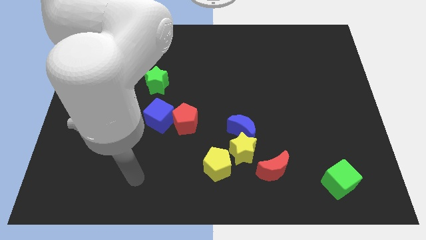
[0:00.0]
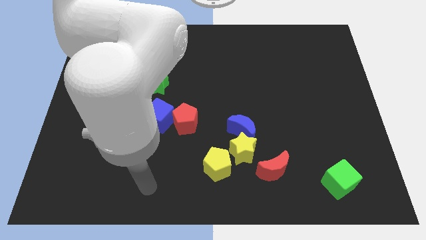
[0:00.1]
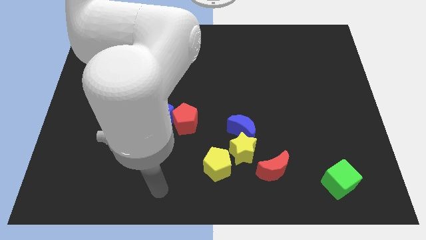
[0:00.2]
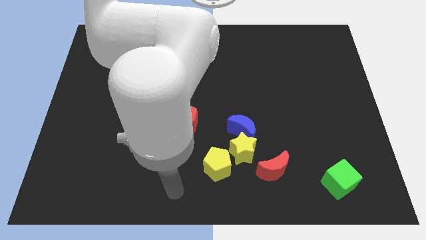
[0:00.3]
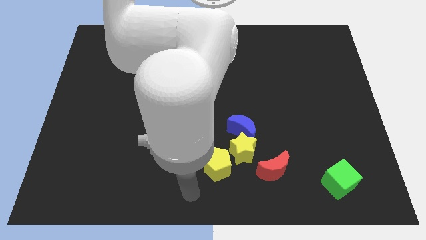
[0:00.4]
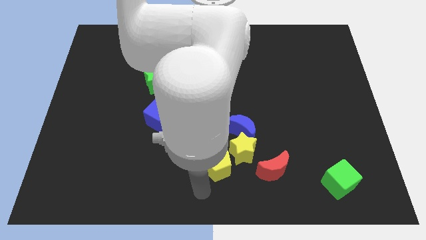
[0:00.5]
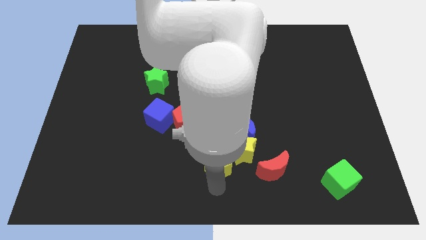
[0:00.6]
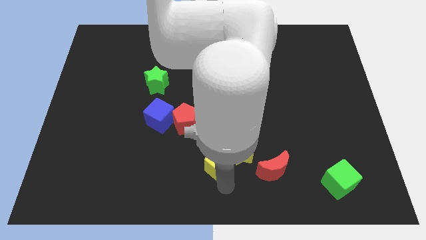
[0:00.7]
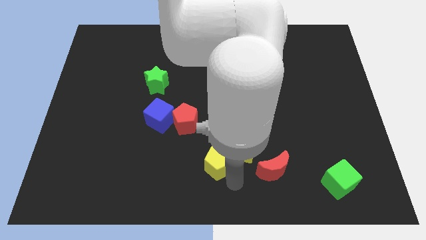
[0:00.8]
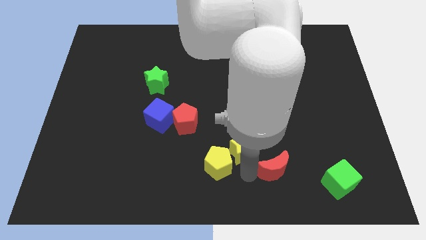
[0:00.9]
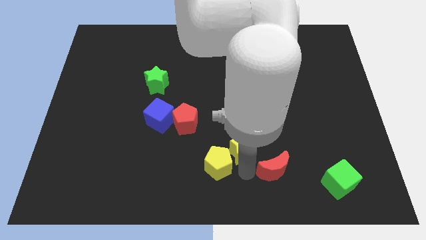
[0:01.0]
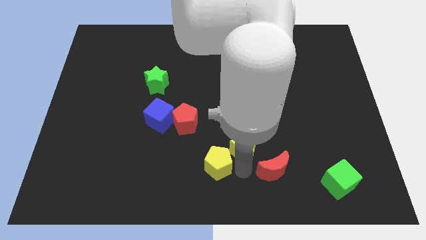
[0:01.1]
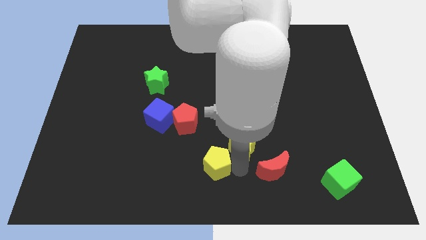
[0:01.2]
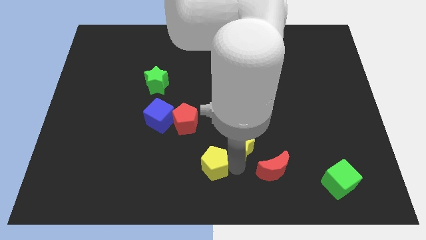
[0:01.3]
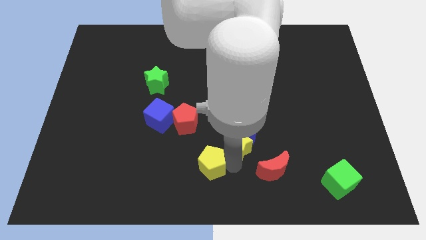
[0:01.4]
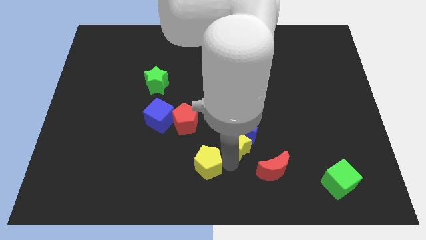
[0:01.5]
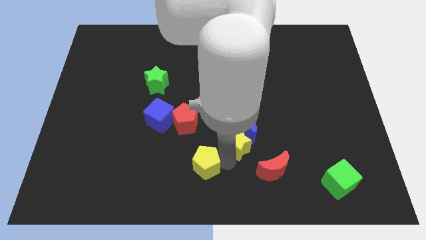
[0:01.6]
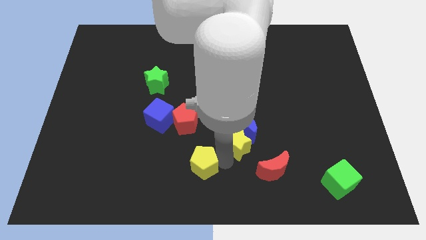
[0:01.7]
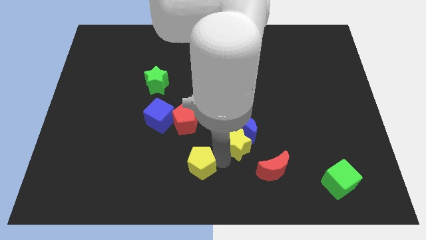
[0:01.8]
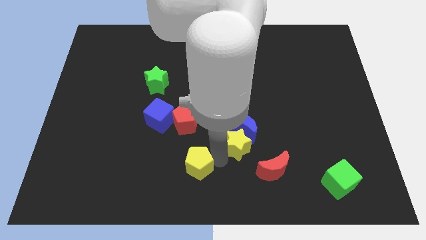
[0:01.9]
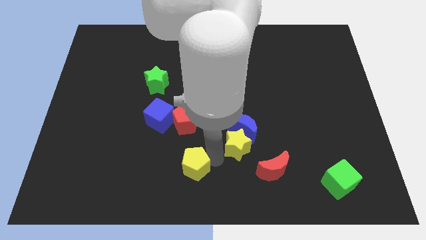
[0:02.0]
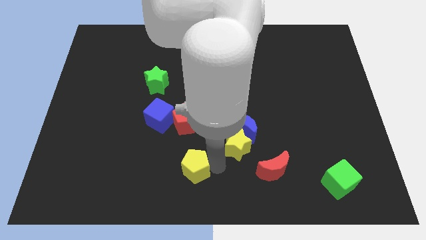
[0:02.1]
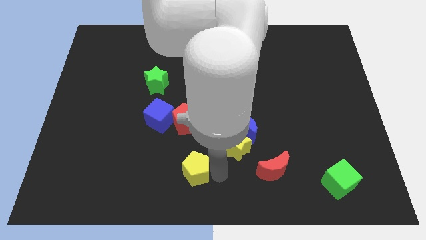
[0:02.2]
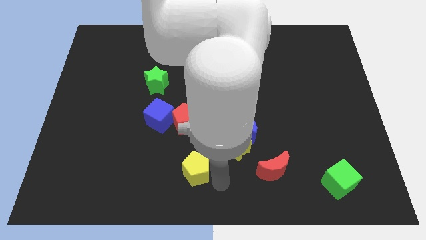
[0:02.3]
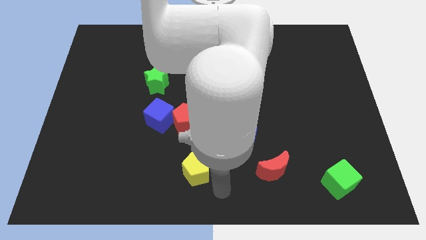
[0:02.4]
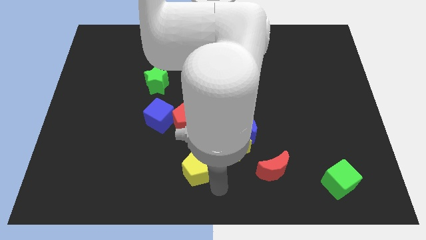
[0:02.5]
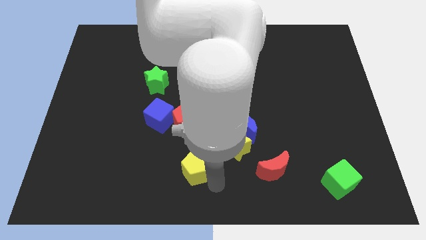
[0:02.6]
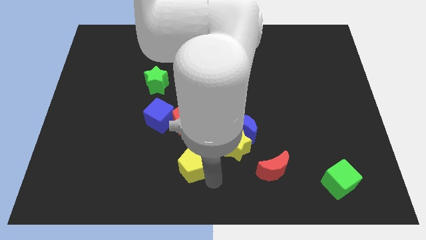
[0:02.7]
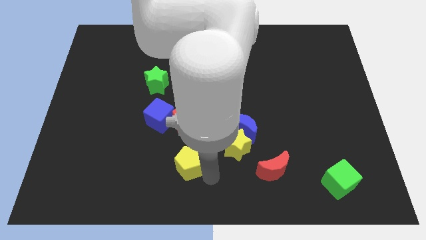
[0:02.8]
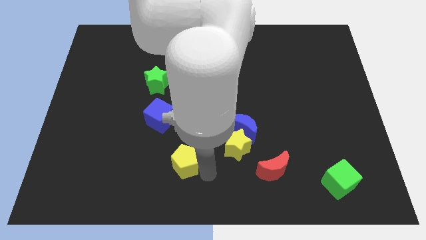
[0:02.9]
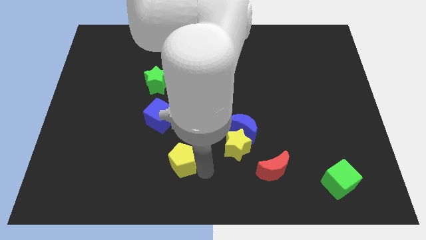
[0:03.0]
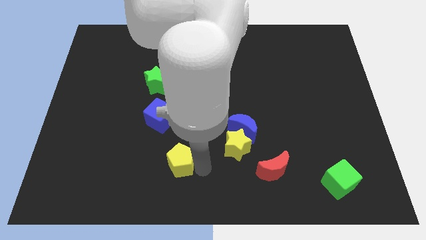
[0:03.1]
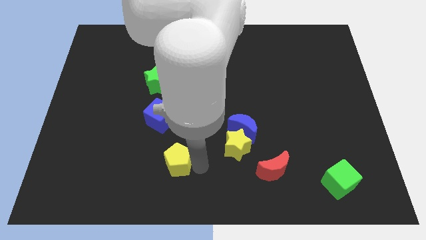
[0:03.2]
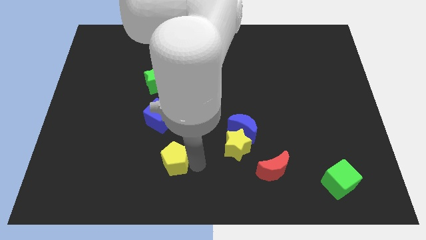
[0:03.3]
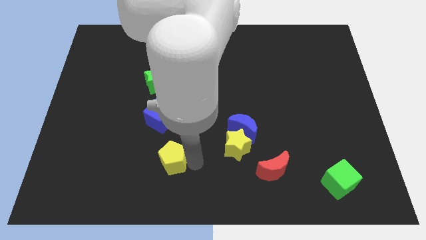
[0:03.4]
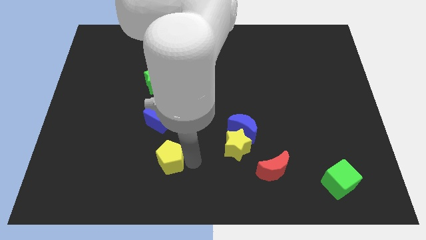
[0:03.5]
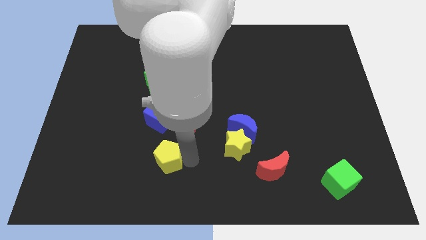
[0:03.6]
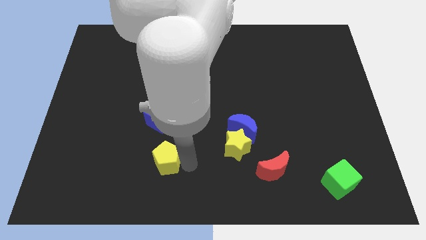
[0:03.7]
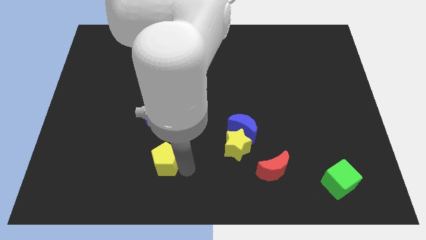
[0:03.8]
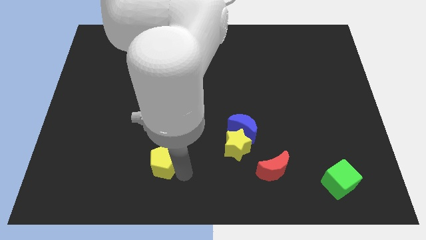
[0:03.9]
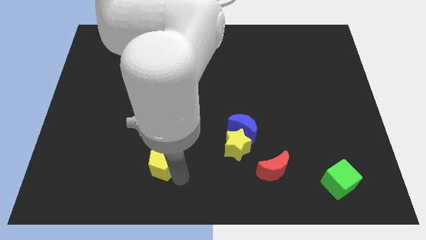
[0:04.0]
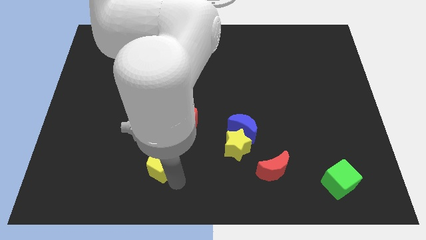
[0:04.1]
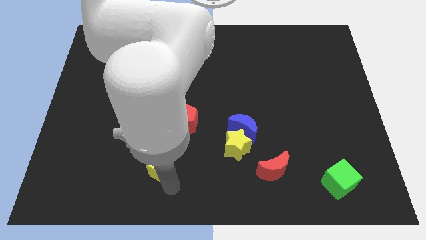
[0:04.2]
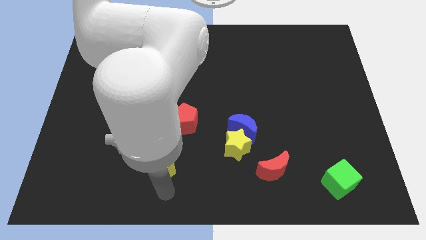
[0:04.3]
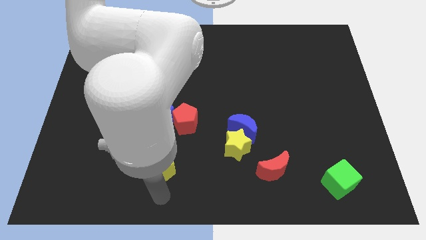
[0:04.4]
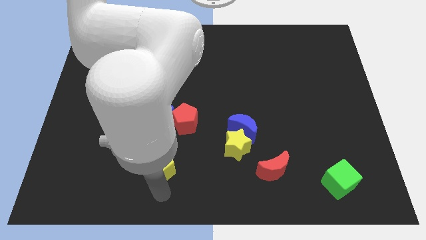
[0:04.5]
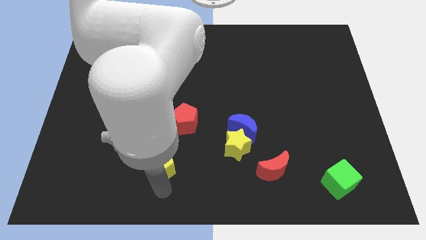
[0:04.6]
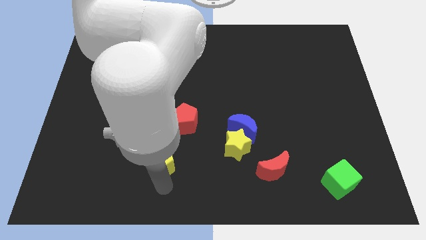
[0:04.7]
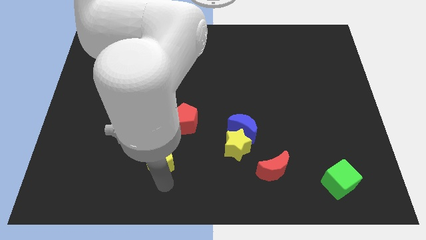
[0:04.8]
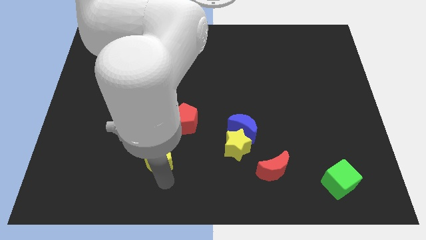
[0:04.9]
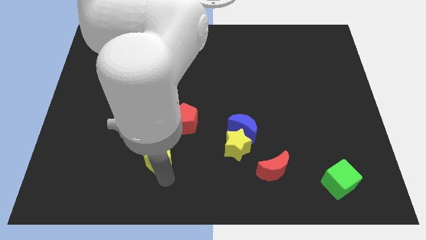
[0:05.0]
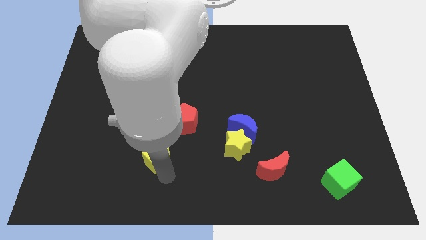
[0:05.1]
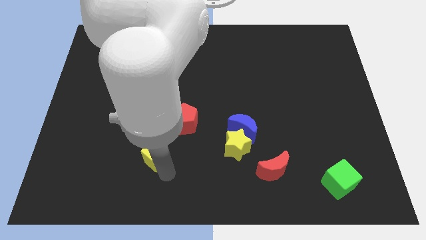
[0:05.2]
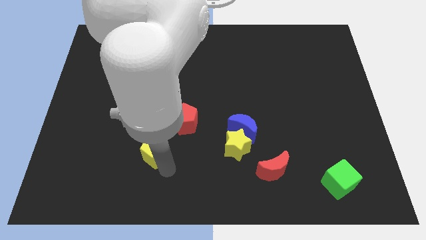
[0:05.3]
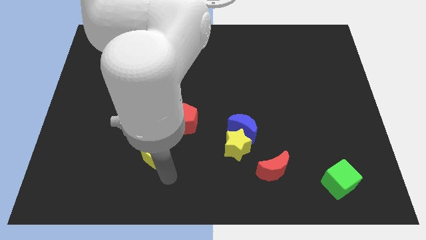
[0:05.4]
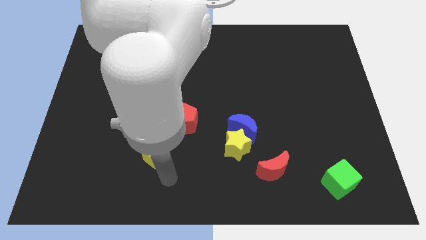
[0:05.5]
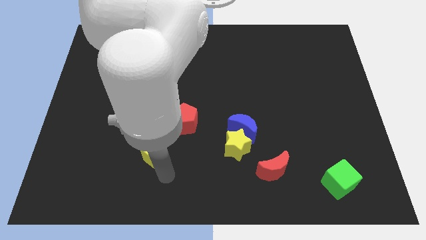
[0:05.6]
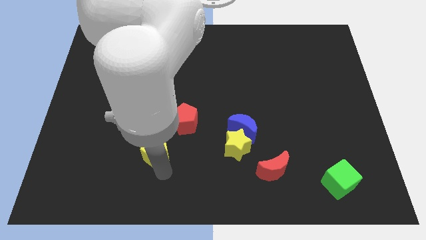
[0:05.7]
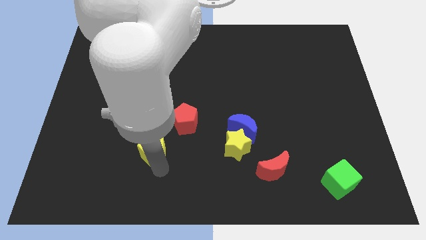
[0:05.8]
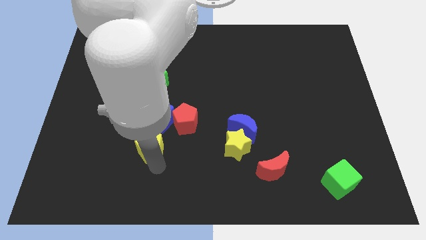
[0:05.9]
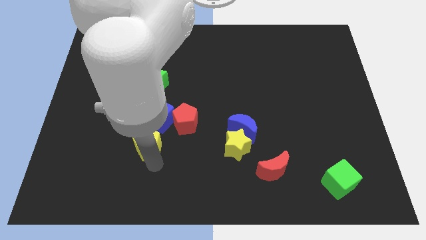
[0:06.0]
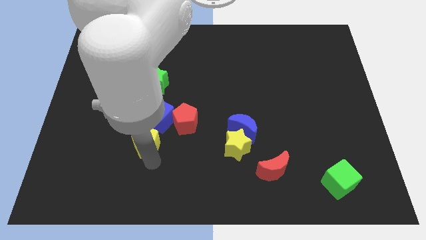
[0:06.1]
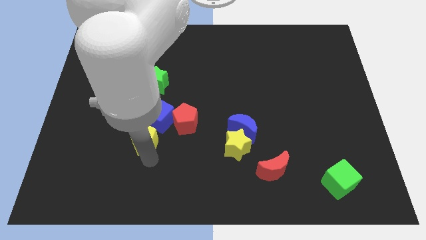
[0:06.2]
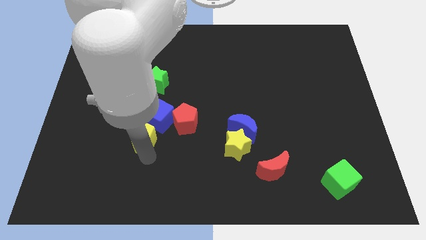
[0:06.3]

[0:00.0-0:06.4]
put the yellow pentagon to the left of the red pentagon
